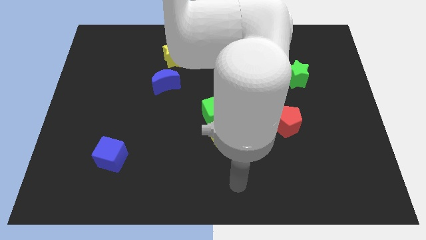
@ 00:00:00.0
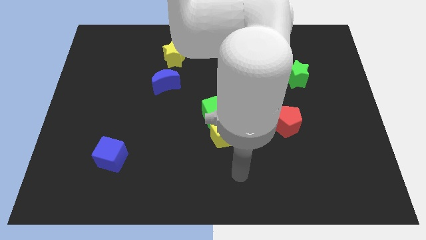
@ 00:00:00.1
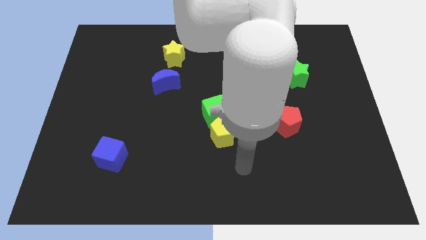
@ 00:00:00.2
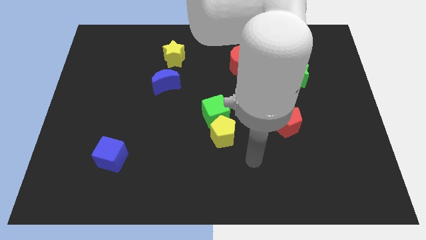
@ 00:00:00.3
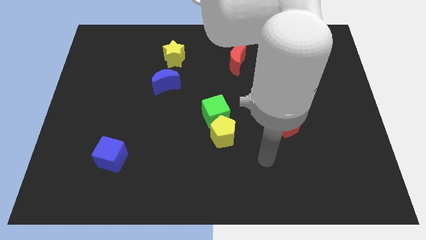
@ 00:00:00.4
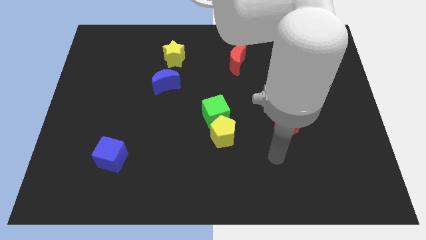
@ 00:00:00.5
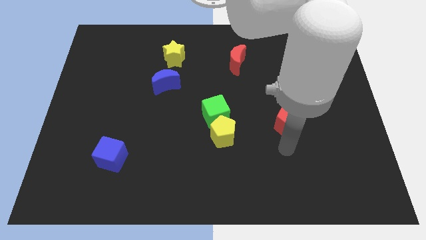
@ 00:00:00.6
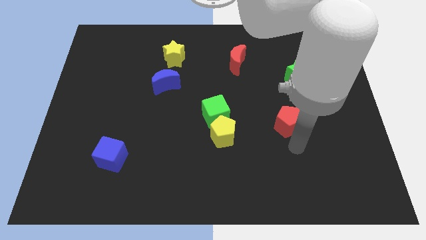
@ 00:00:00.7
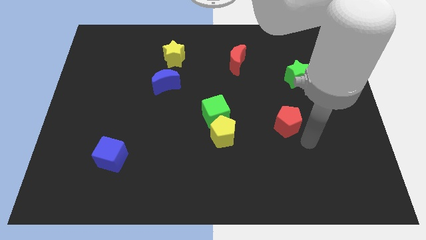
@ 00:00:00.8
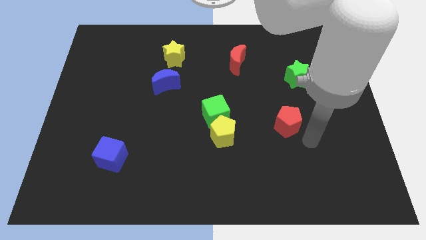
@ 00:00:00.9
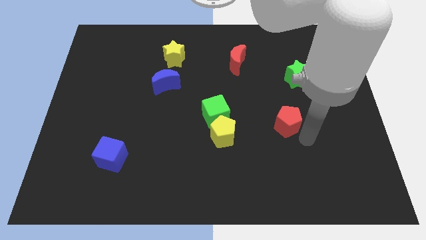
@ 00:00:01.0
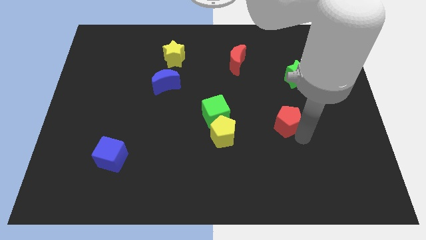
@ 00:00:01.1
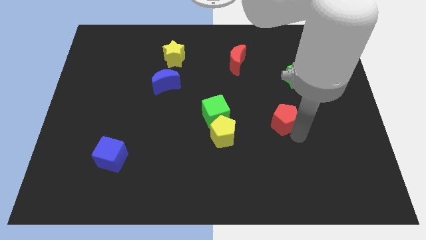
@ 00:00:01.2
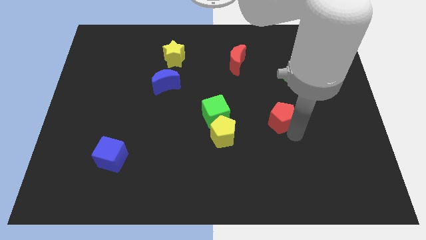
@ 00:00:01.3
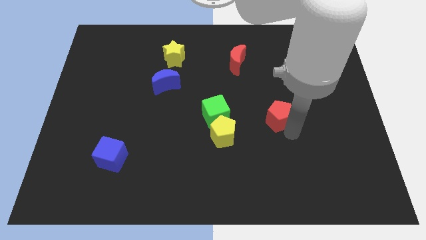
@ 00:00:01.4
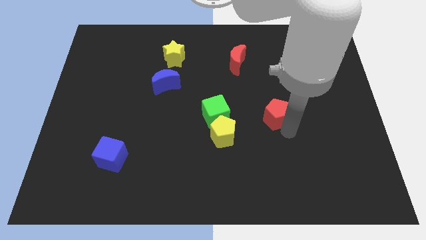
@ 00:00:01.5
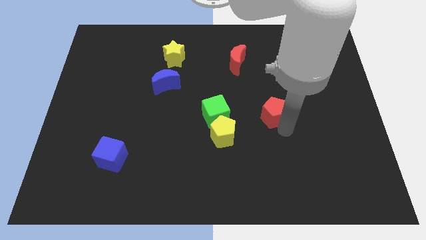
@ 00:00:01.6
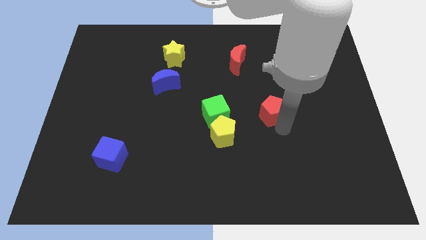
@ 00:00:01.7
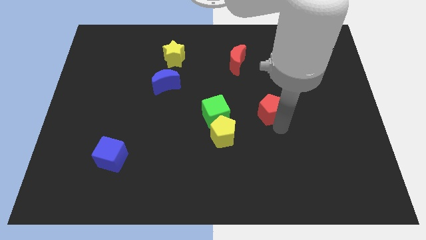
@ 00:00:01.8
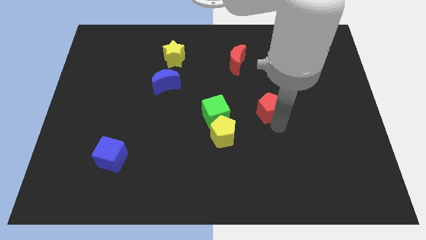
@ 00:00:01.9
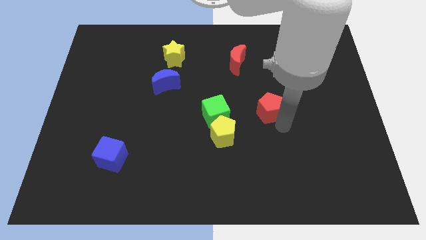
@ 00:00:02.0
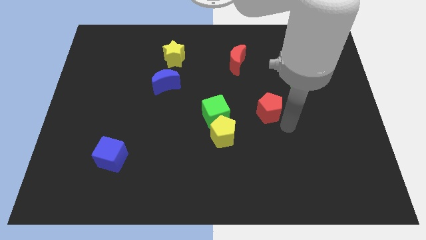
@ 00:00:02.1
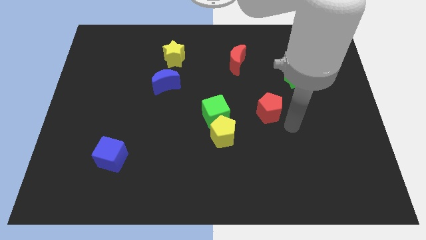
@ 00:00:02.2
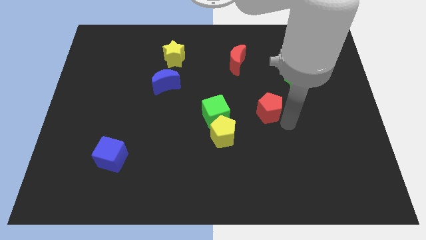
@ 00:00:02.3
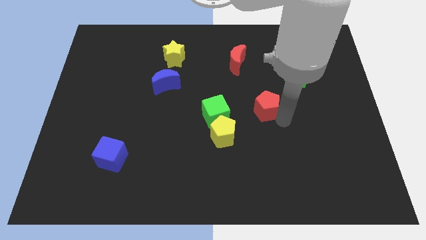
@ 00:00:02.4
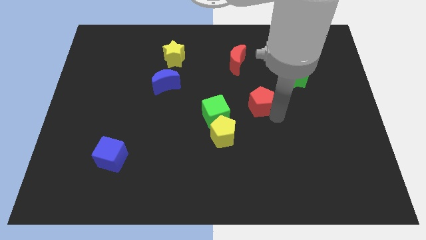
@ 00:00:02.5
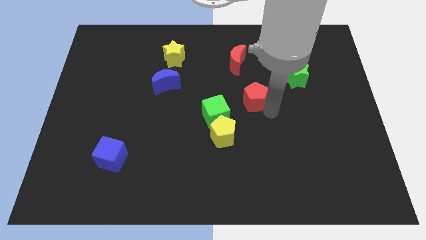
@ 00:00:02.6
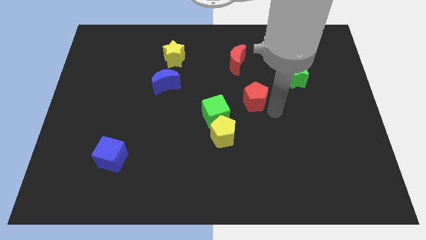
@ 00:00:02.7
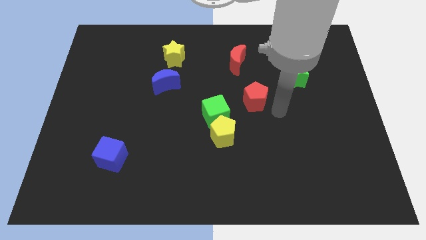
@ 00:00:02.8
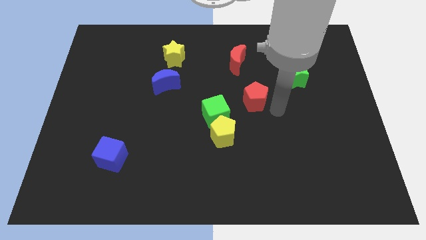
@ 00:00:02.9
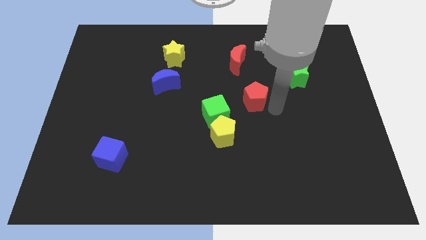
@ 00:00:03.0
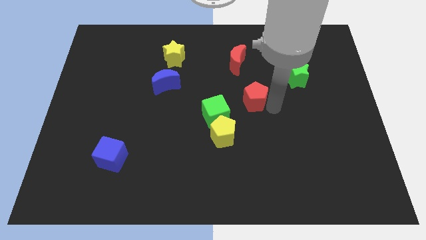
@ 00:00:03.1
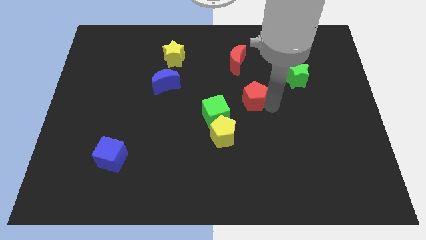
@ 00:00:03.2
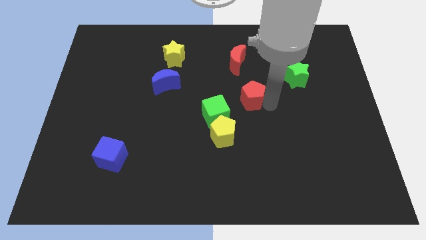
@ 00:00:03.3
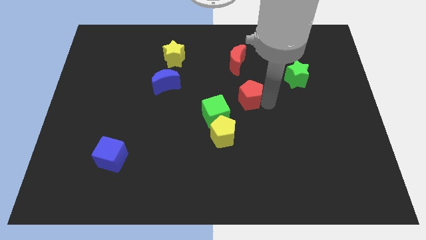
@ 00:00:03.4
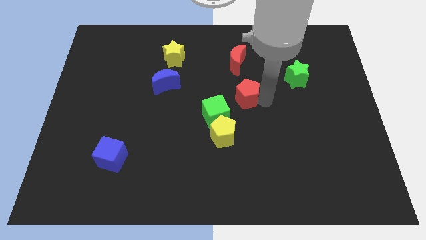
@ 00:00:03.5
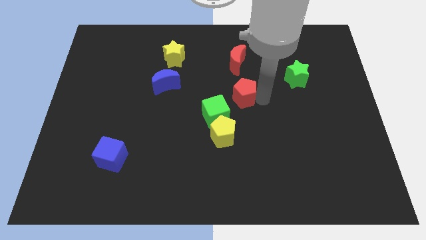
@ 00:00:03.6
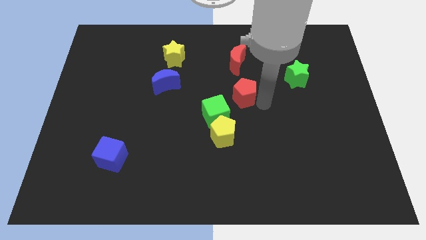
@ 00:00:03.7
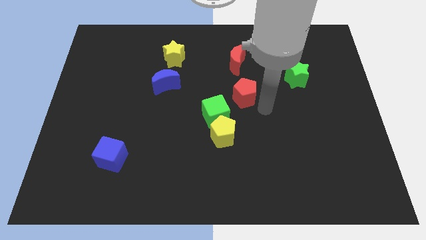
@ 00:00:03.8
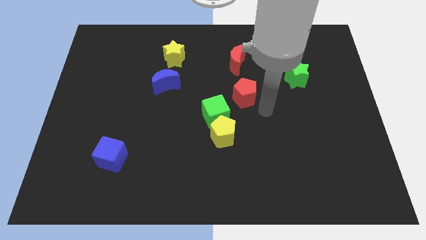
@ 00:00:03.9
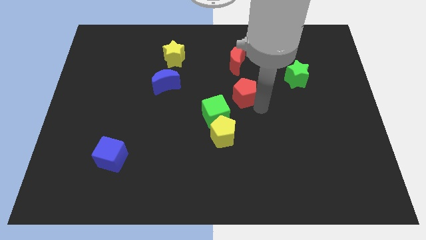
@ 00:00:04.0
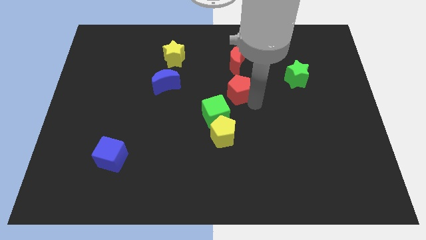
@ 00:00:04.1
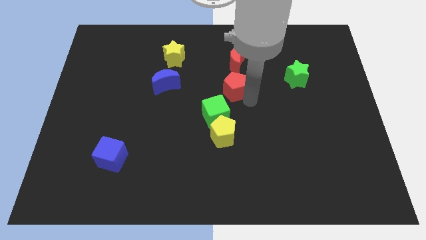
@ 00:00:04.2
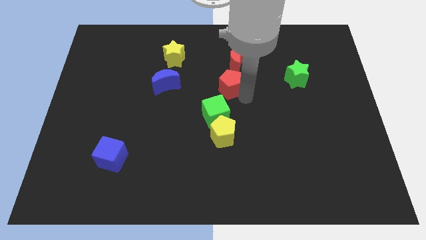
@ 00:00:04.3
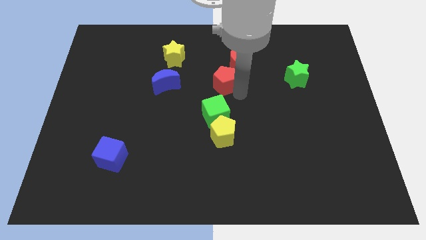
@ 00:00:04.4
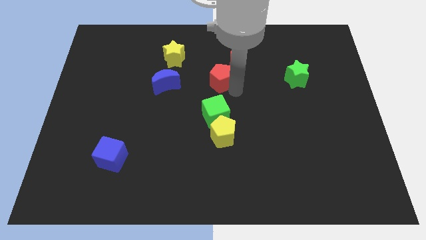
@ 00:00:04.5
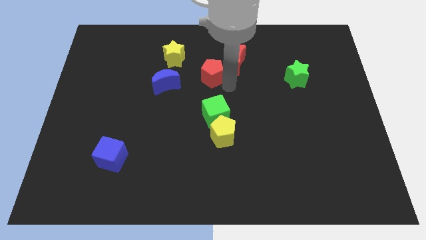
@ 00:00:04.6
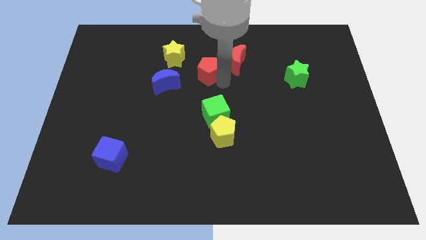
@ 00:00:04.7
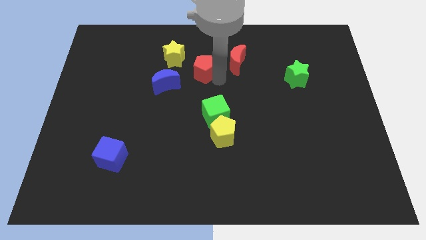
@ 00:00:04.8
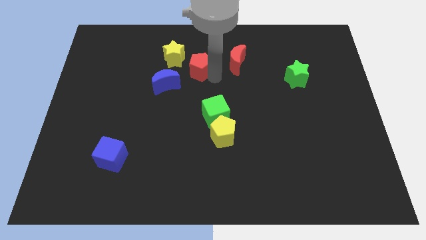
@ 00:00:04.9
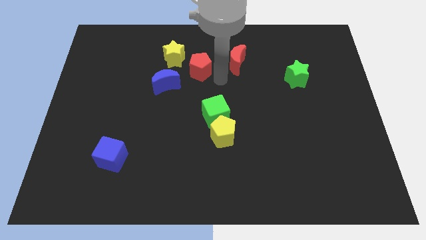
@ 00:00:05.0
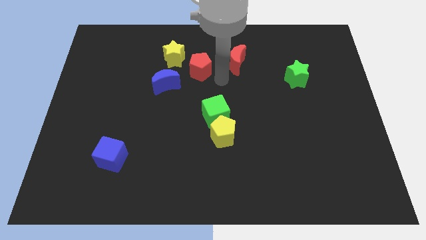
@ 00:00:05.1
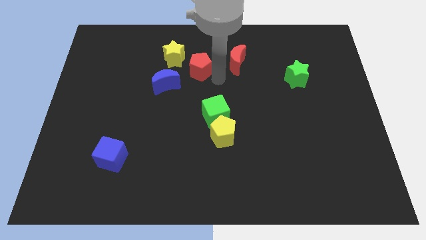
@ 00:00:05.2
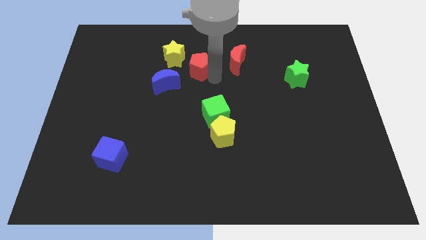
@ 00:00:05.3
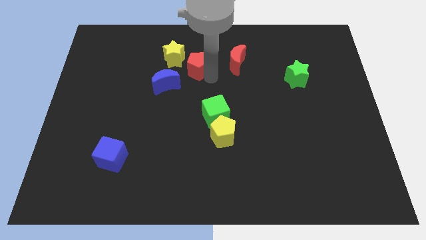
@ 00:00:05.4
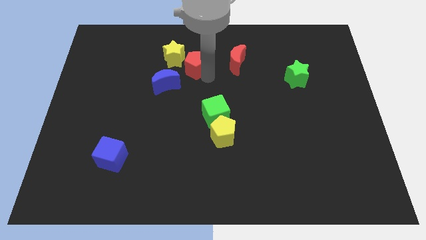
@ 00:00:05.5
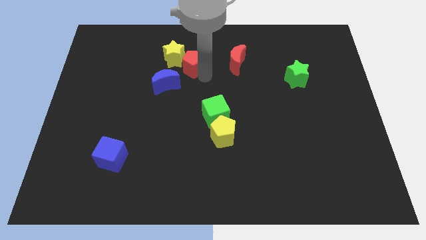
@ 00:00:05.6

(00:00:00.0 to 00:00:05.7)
push the red pentagon next to the yellow star
